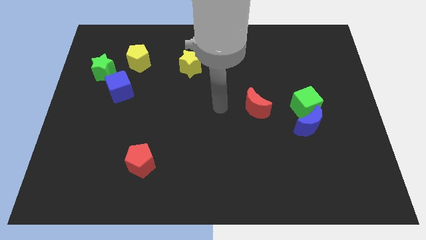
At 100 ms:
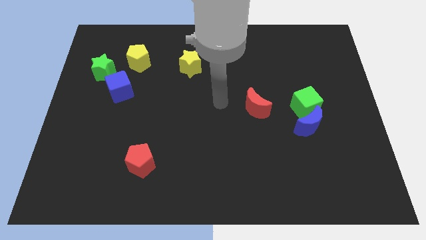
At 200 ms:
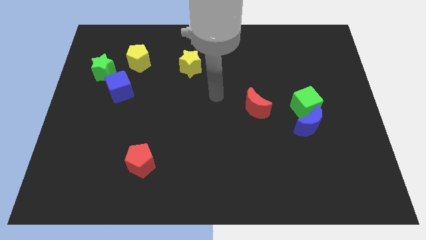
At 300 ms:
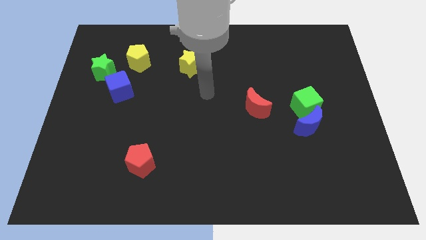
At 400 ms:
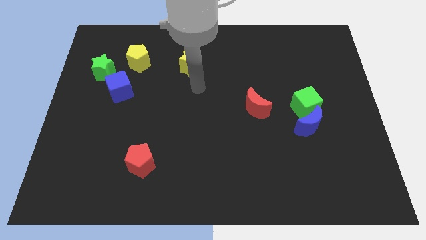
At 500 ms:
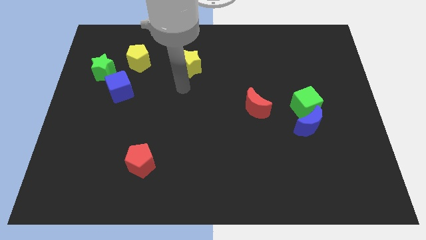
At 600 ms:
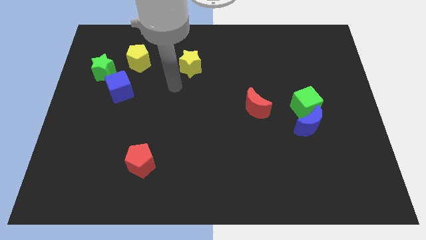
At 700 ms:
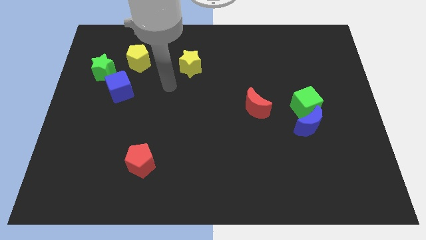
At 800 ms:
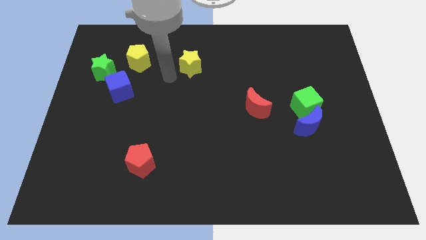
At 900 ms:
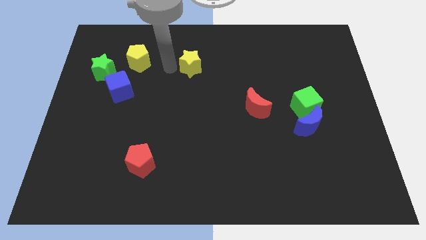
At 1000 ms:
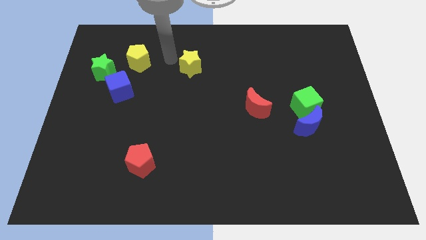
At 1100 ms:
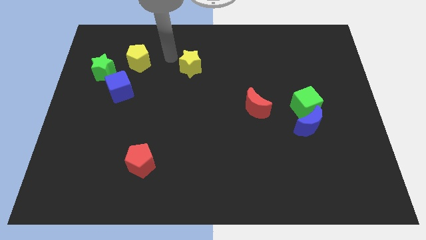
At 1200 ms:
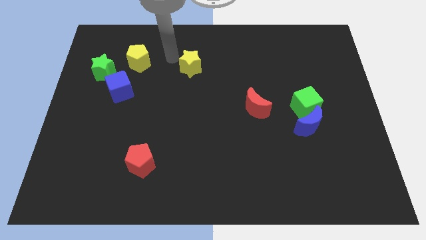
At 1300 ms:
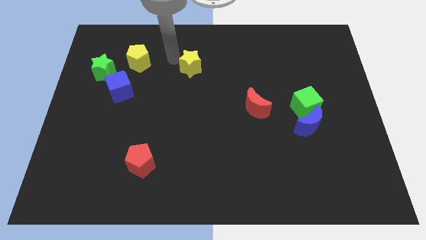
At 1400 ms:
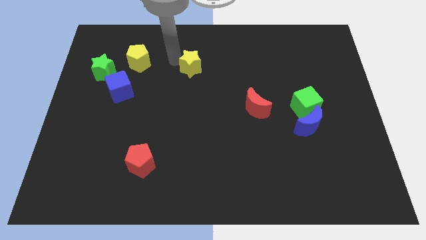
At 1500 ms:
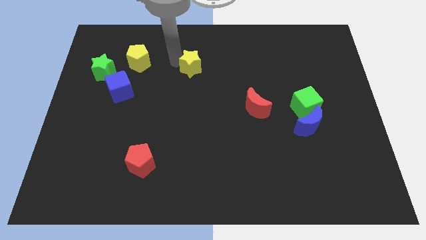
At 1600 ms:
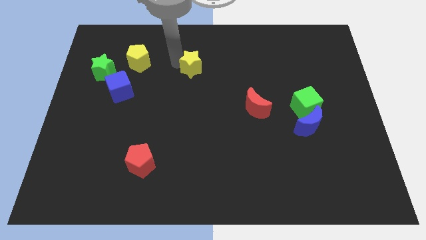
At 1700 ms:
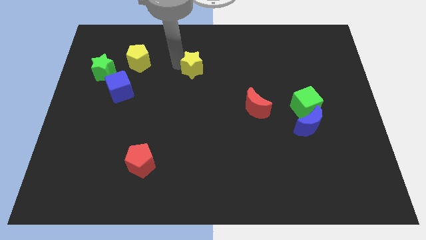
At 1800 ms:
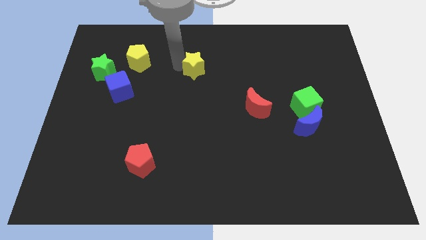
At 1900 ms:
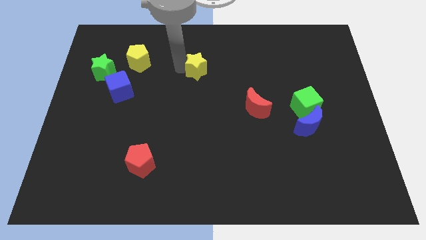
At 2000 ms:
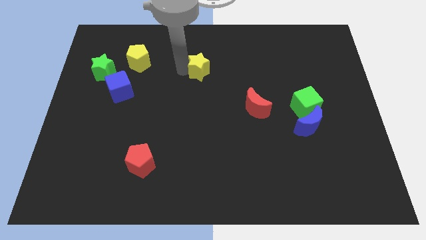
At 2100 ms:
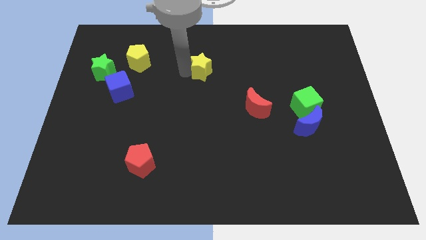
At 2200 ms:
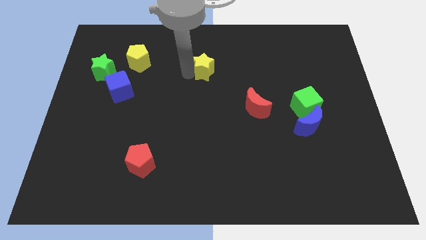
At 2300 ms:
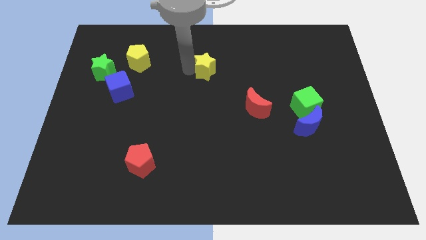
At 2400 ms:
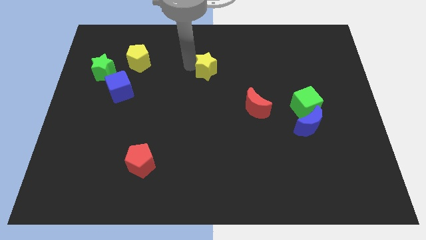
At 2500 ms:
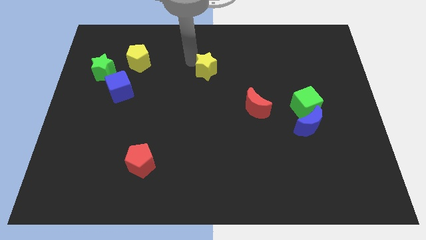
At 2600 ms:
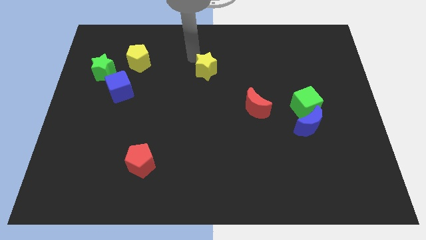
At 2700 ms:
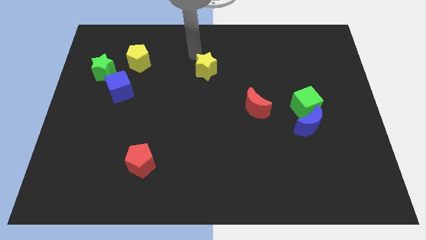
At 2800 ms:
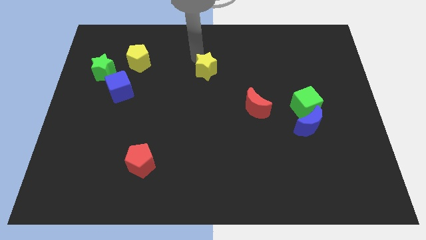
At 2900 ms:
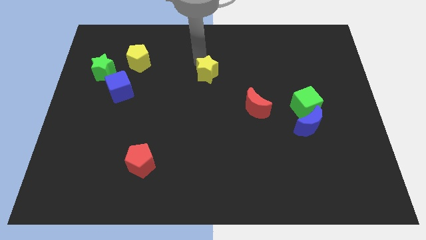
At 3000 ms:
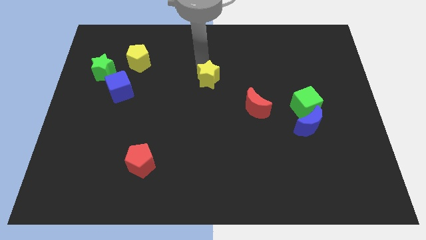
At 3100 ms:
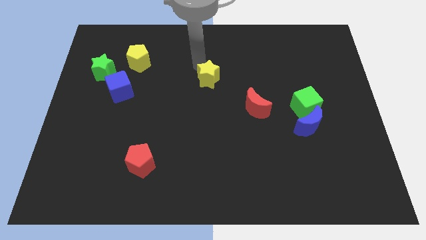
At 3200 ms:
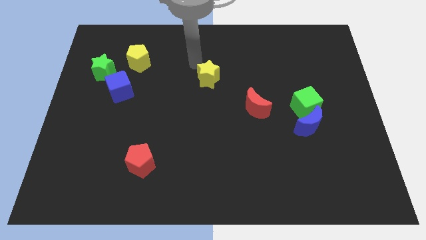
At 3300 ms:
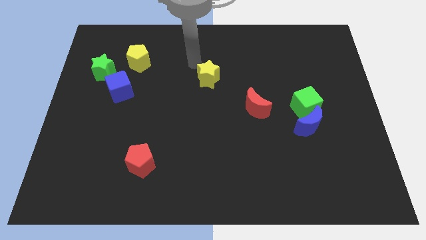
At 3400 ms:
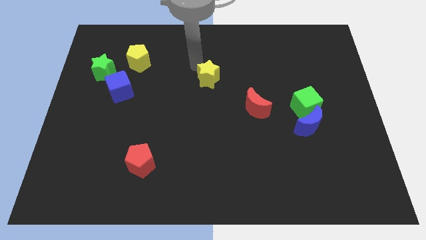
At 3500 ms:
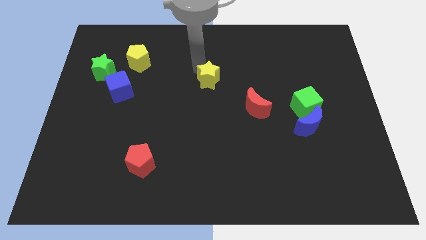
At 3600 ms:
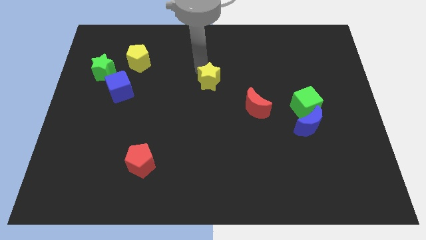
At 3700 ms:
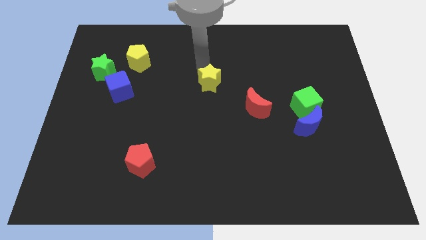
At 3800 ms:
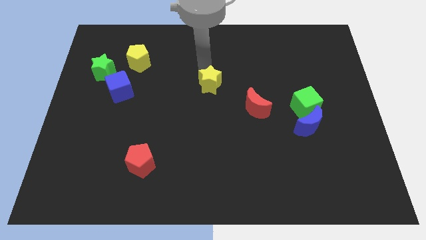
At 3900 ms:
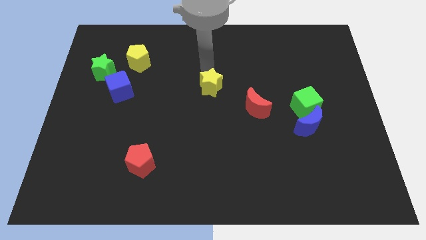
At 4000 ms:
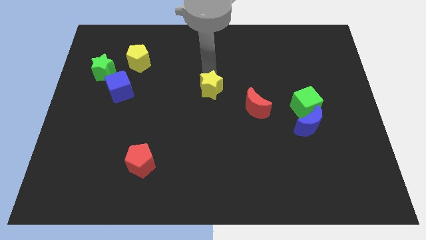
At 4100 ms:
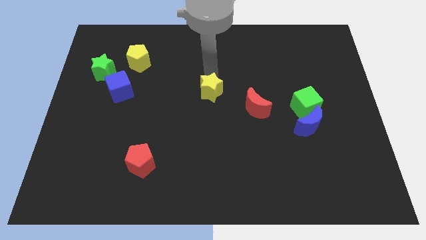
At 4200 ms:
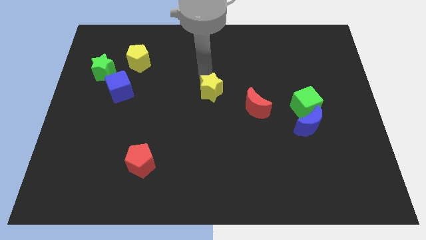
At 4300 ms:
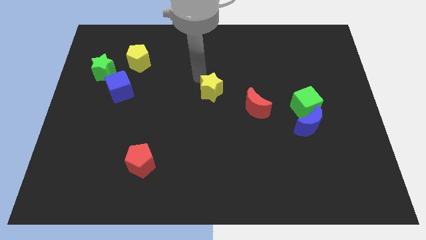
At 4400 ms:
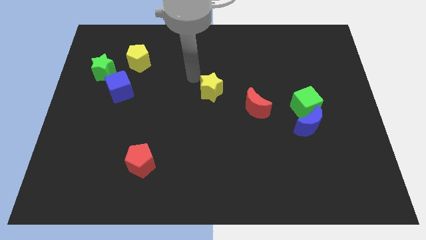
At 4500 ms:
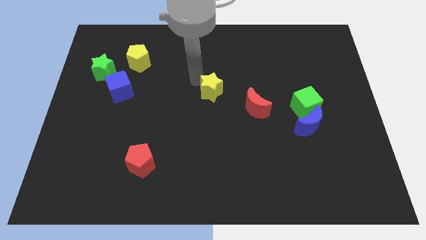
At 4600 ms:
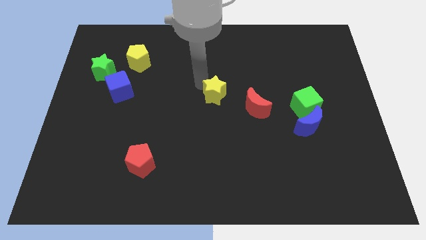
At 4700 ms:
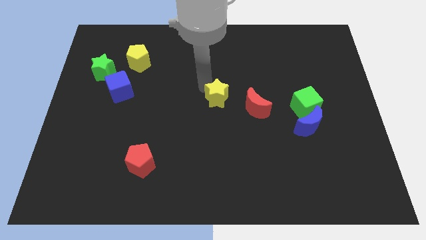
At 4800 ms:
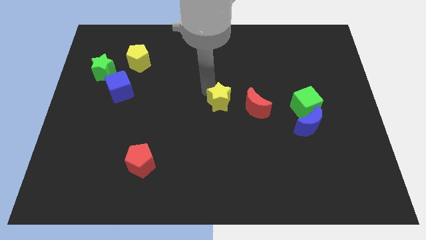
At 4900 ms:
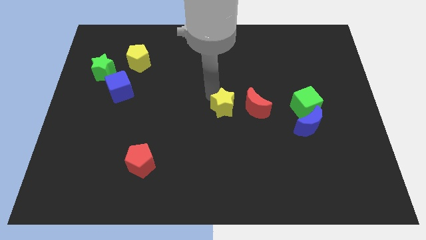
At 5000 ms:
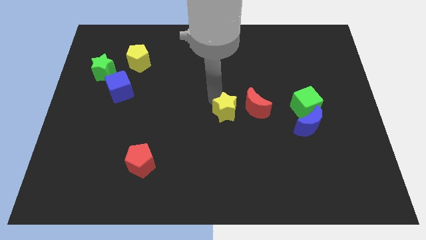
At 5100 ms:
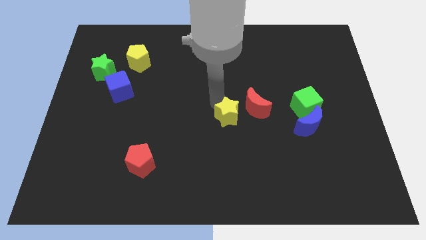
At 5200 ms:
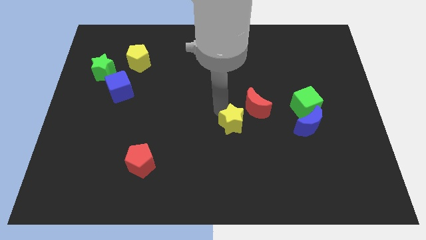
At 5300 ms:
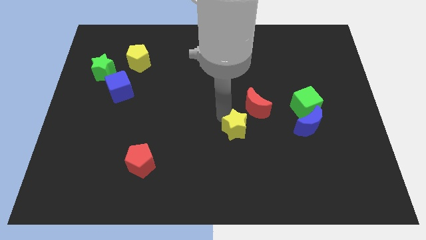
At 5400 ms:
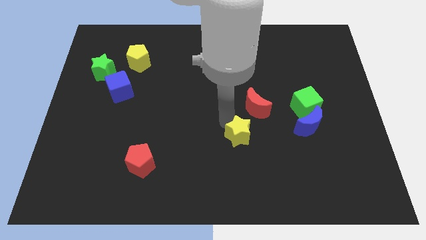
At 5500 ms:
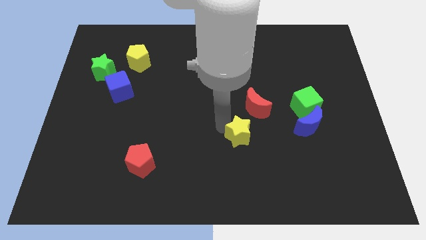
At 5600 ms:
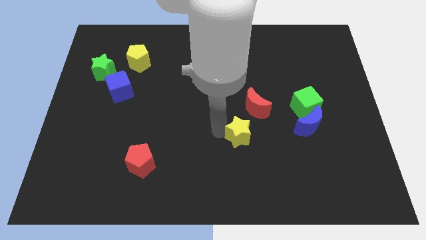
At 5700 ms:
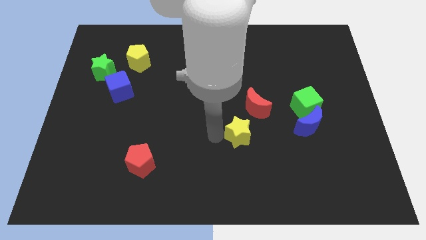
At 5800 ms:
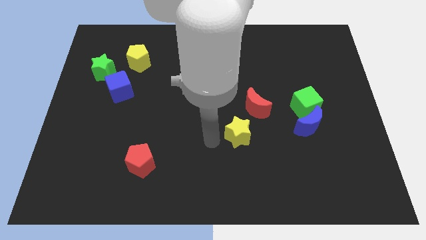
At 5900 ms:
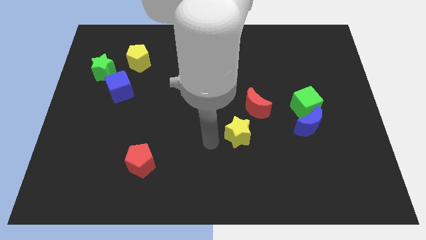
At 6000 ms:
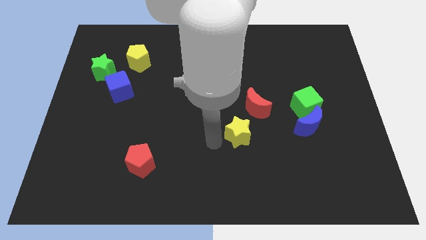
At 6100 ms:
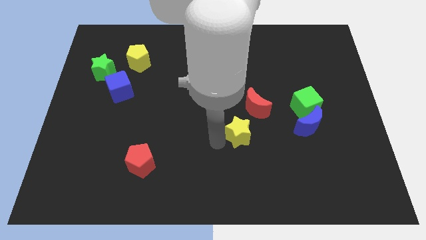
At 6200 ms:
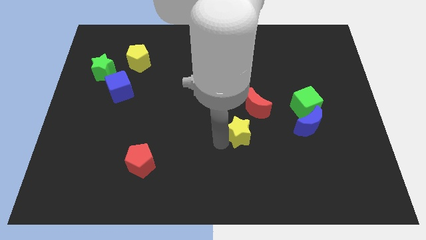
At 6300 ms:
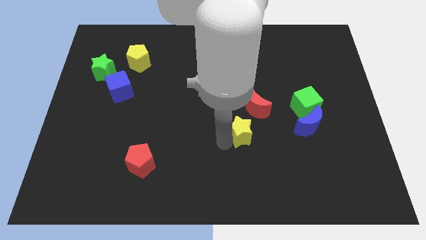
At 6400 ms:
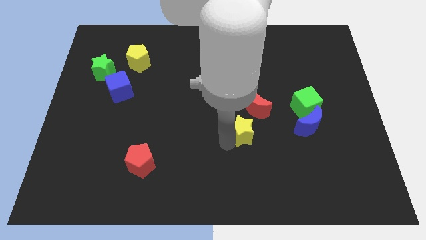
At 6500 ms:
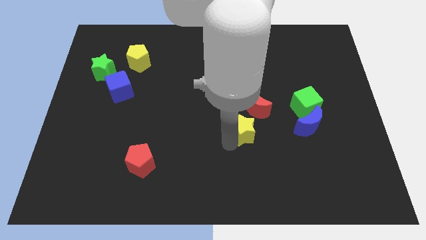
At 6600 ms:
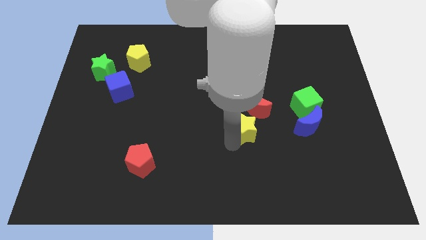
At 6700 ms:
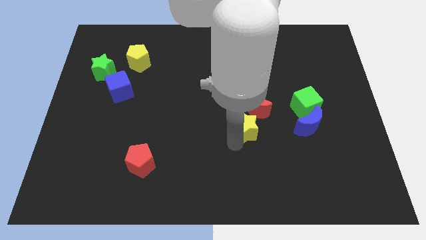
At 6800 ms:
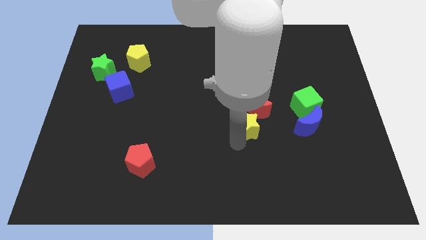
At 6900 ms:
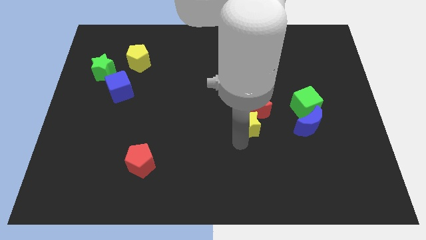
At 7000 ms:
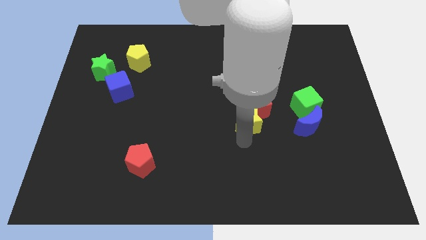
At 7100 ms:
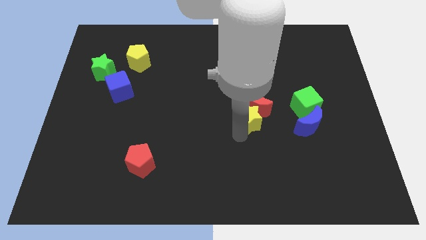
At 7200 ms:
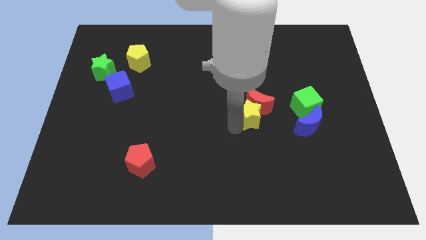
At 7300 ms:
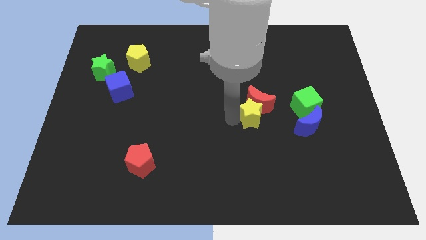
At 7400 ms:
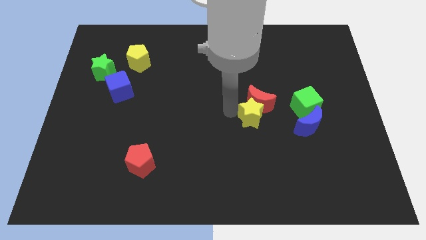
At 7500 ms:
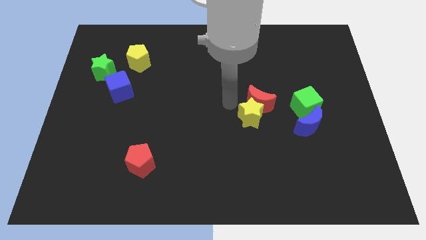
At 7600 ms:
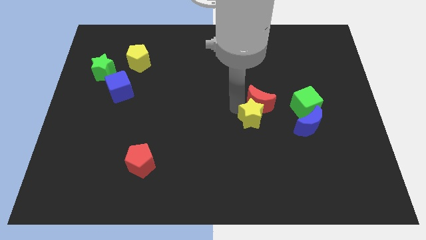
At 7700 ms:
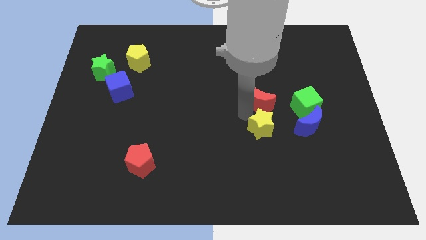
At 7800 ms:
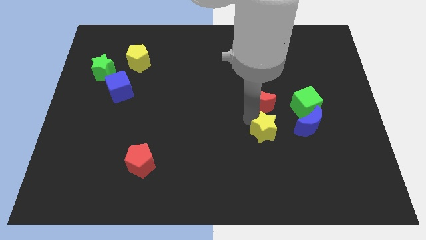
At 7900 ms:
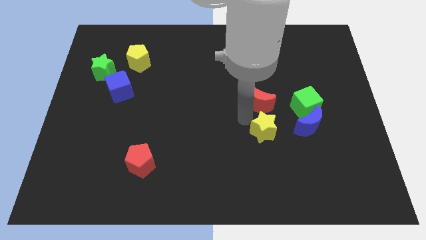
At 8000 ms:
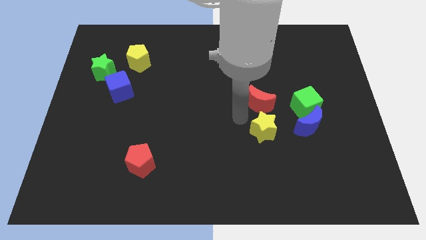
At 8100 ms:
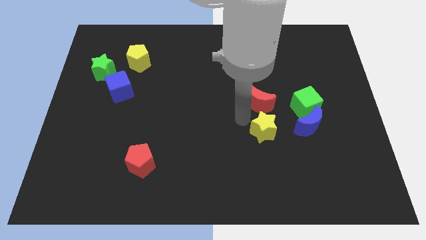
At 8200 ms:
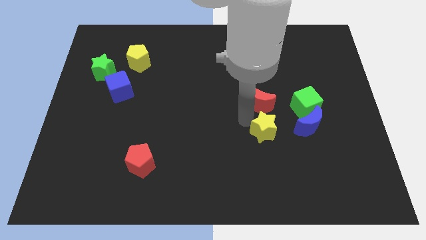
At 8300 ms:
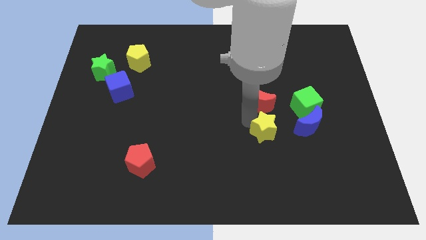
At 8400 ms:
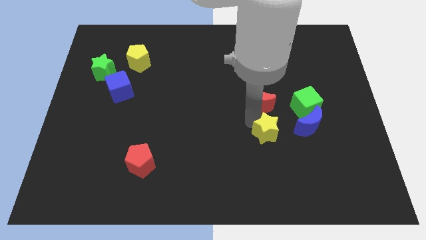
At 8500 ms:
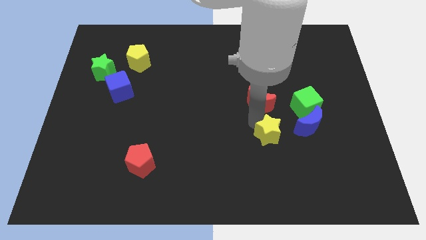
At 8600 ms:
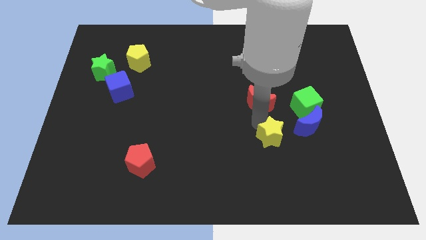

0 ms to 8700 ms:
slide the yellow star to the bottom left side of the blue moon
